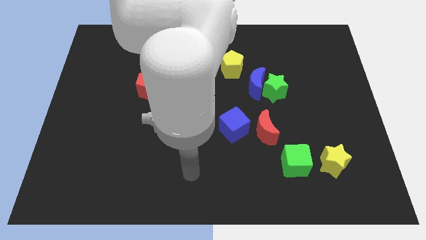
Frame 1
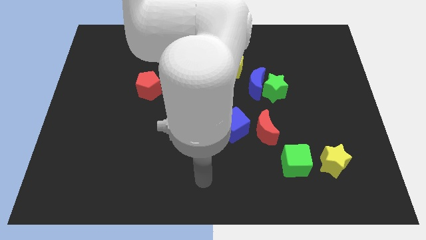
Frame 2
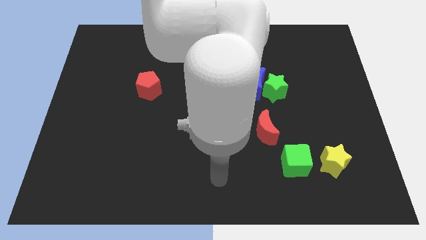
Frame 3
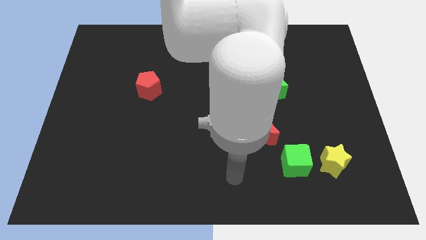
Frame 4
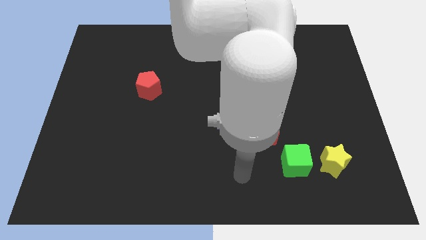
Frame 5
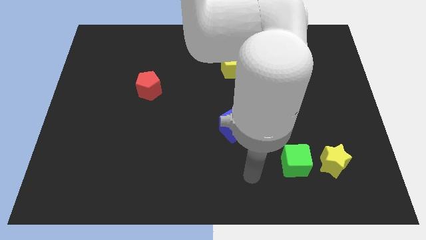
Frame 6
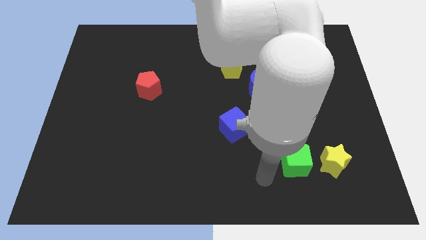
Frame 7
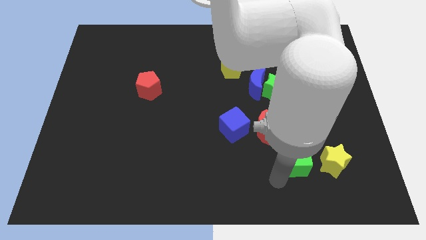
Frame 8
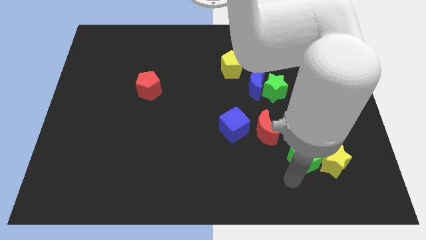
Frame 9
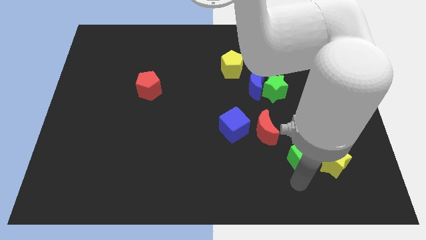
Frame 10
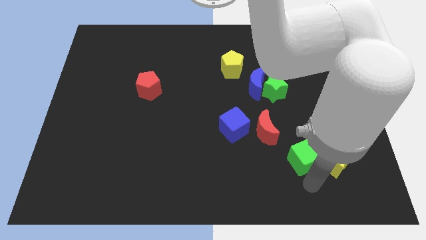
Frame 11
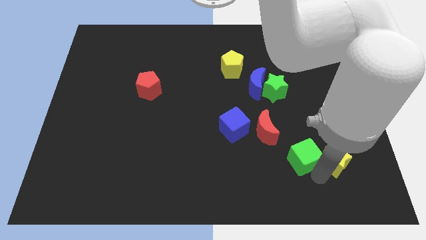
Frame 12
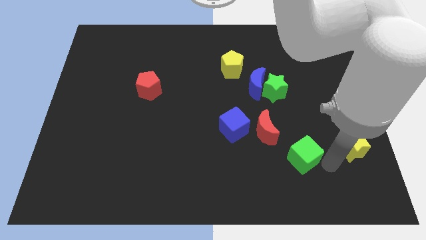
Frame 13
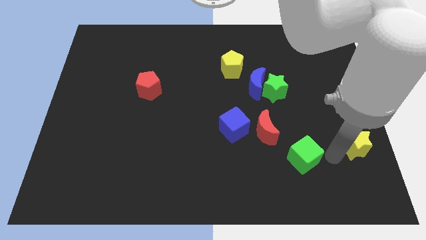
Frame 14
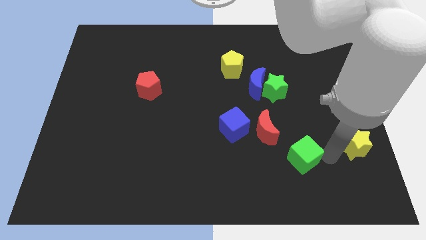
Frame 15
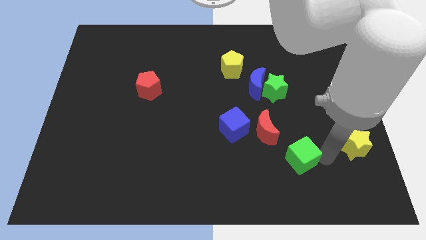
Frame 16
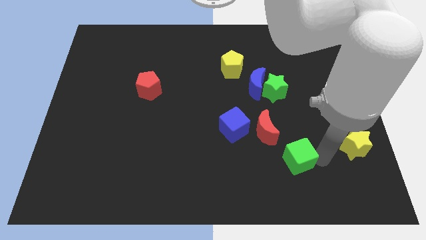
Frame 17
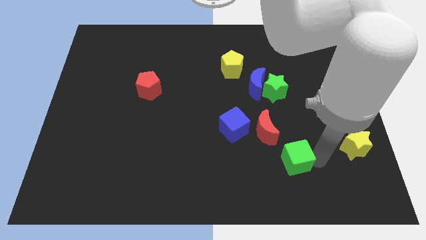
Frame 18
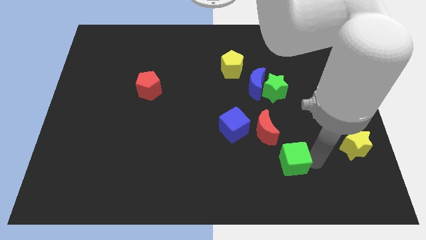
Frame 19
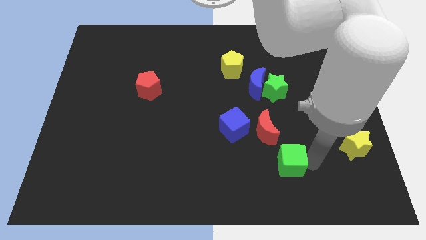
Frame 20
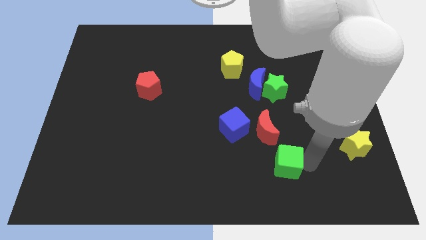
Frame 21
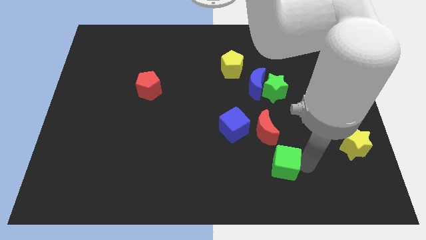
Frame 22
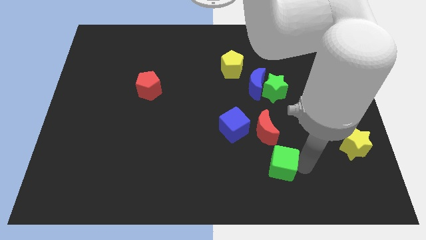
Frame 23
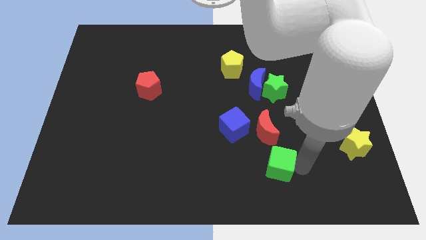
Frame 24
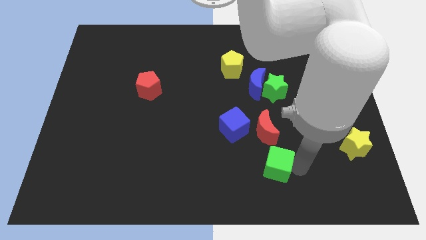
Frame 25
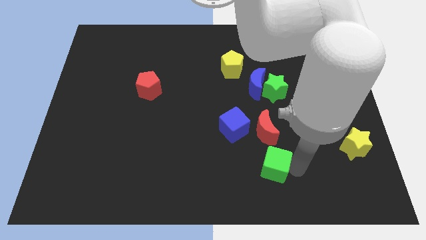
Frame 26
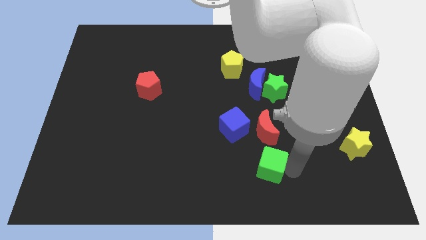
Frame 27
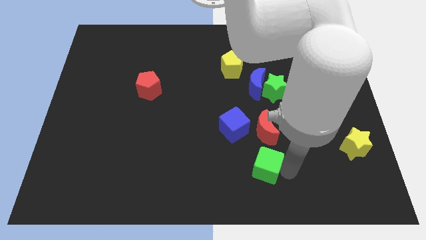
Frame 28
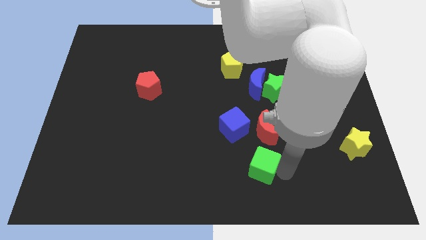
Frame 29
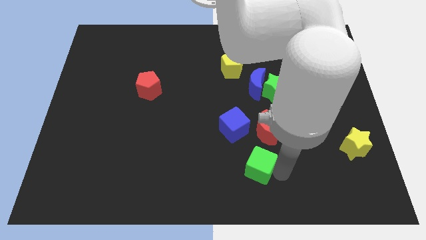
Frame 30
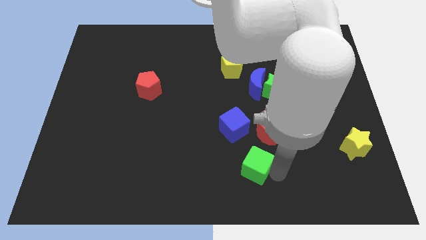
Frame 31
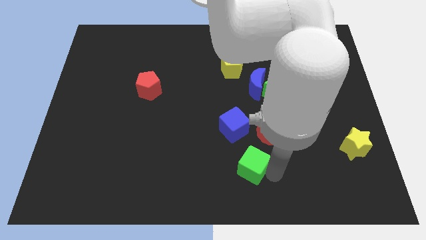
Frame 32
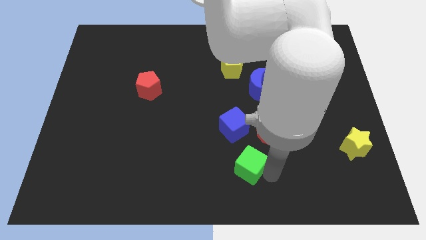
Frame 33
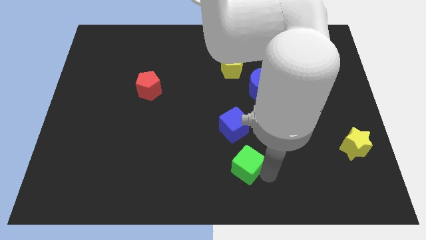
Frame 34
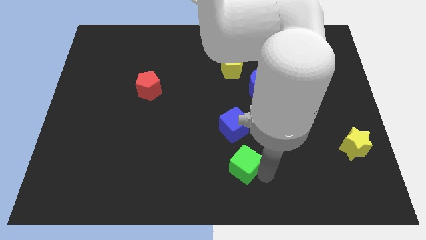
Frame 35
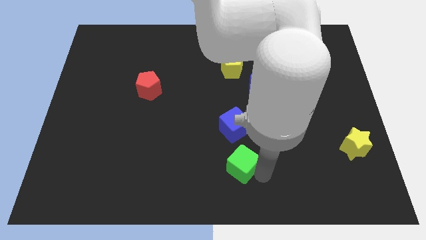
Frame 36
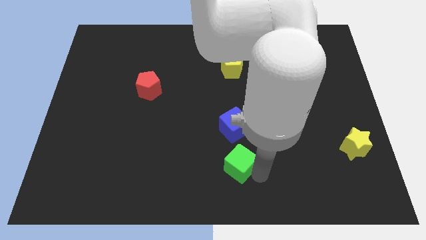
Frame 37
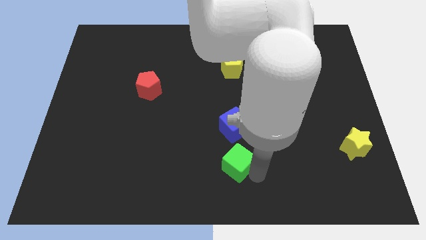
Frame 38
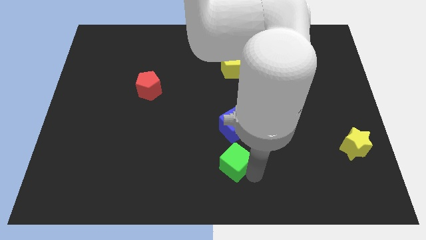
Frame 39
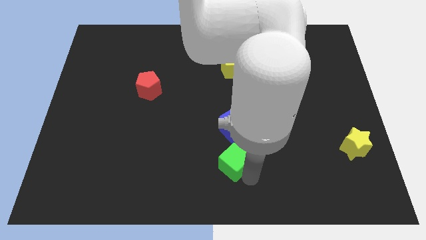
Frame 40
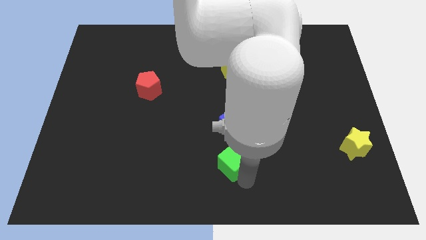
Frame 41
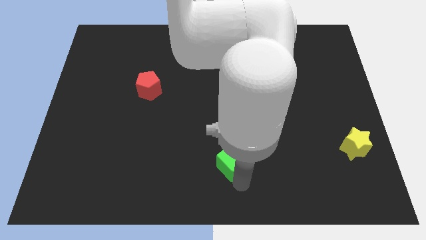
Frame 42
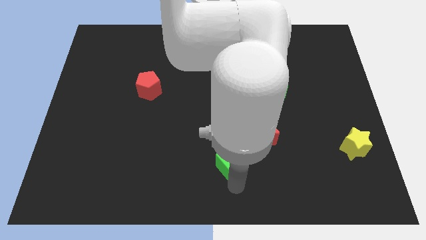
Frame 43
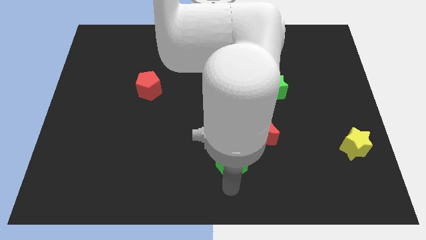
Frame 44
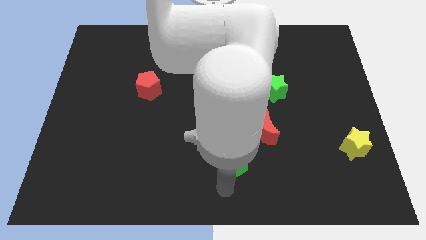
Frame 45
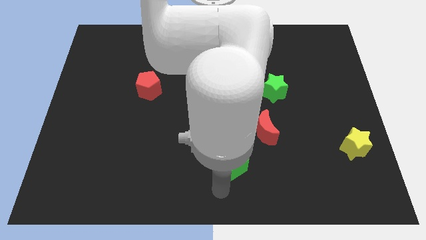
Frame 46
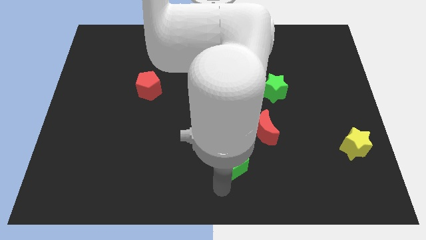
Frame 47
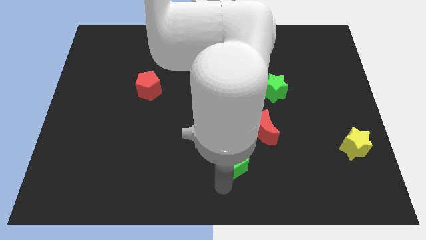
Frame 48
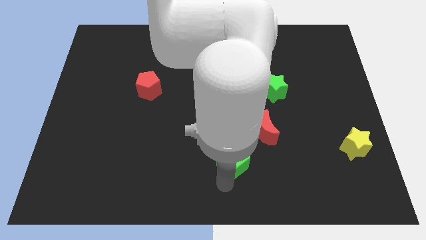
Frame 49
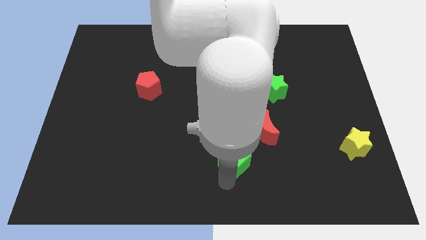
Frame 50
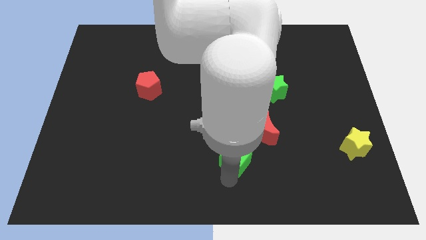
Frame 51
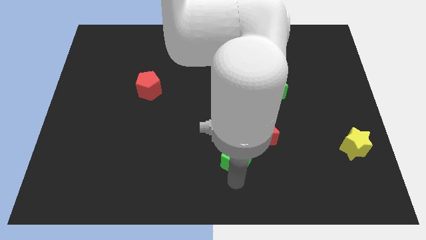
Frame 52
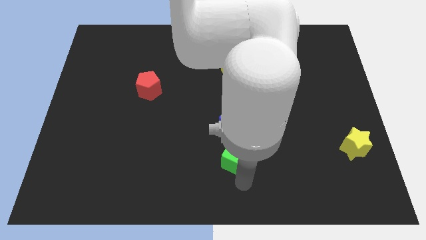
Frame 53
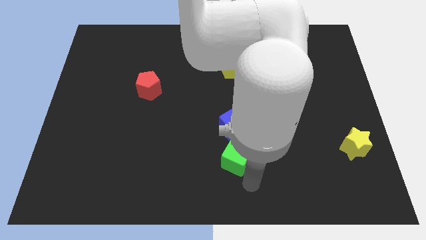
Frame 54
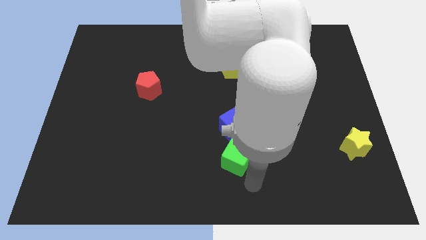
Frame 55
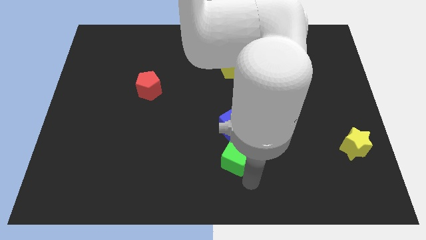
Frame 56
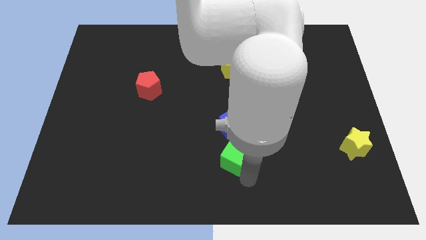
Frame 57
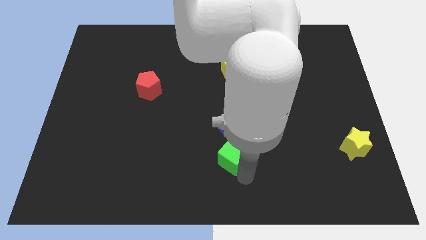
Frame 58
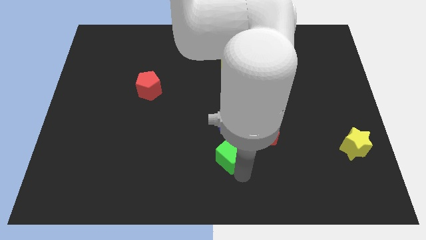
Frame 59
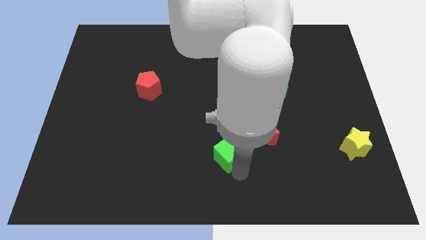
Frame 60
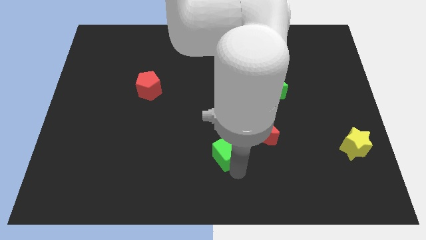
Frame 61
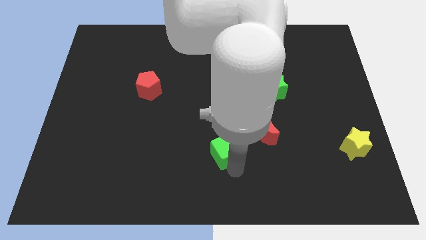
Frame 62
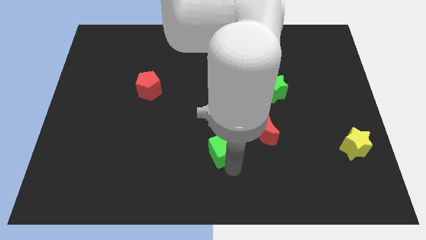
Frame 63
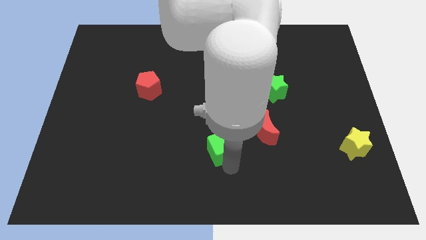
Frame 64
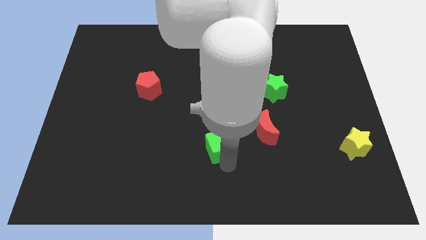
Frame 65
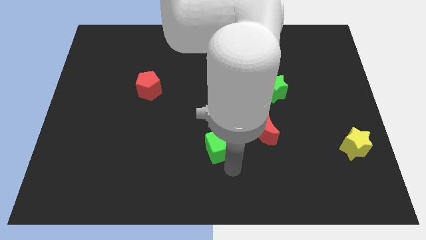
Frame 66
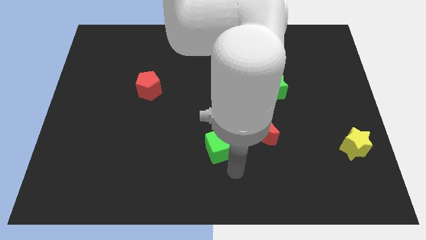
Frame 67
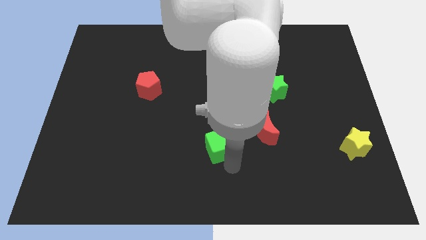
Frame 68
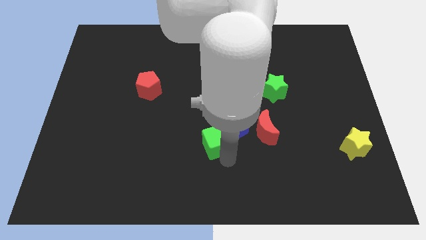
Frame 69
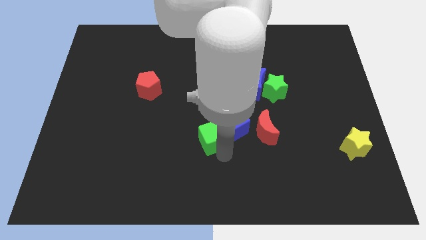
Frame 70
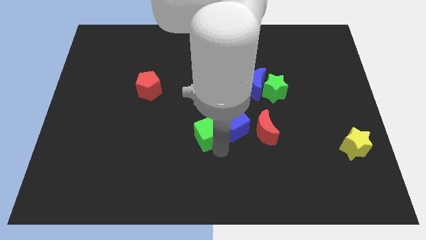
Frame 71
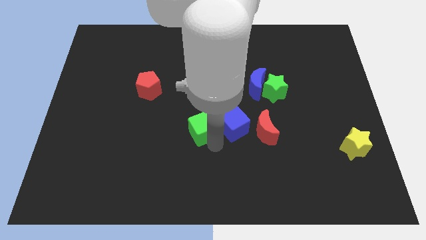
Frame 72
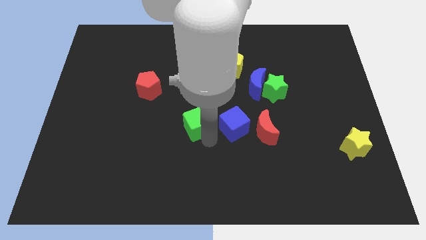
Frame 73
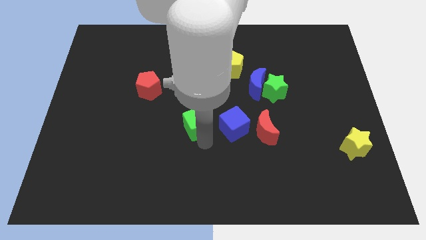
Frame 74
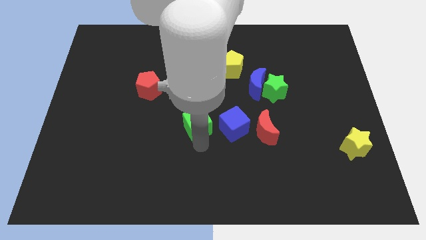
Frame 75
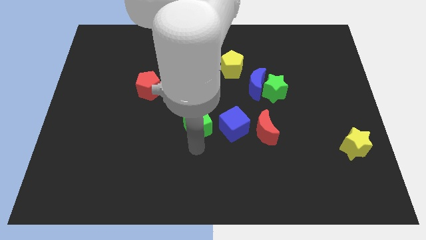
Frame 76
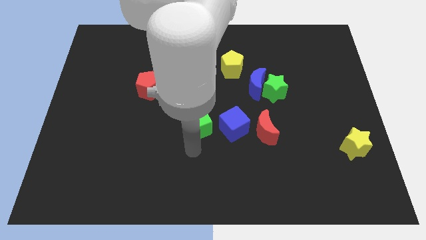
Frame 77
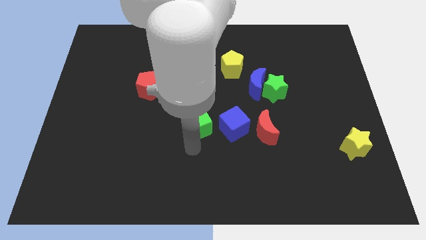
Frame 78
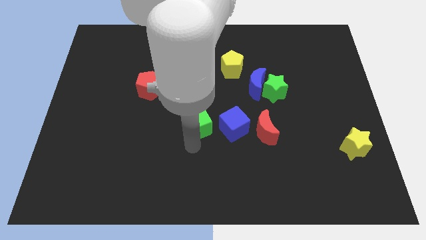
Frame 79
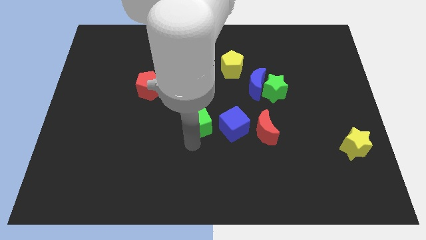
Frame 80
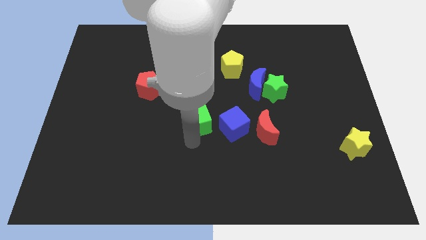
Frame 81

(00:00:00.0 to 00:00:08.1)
push the green cube diagonally upwards and left

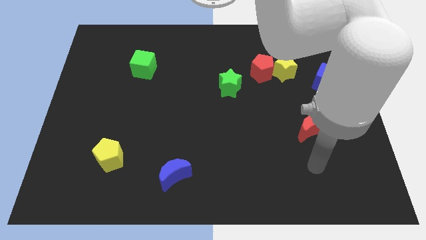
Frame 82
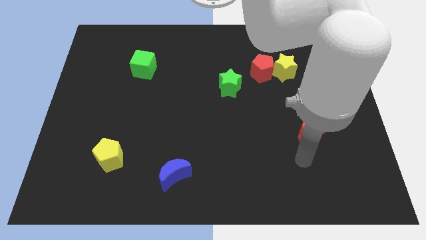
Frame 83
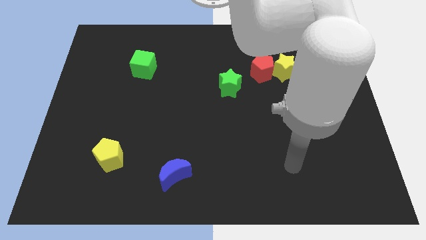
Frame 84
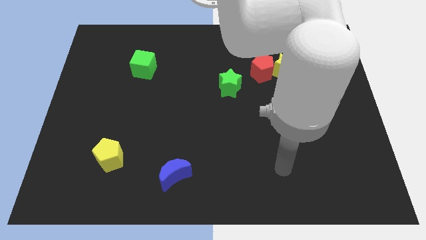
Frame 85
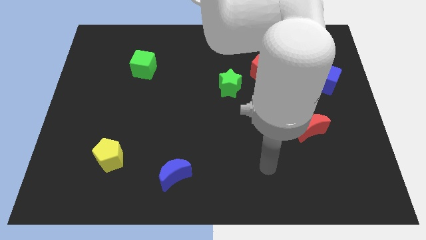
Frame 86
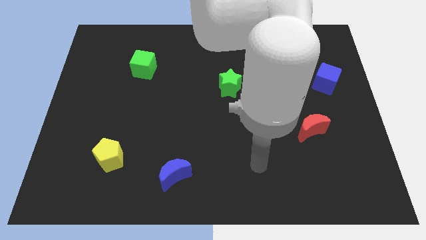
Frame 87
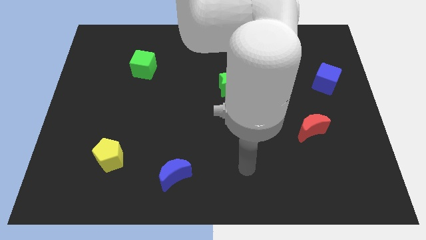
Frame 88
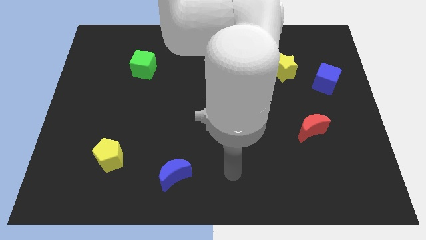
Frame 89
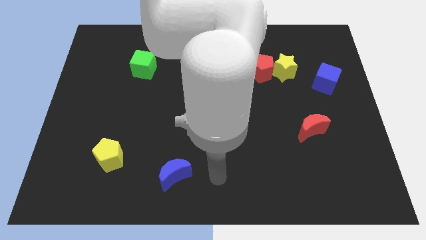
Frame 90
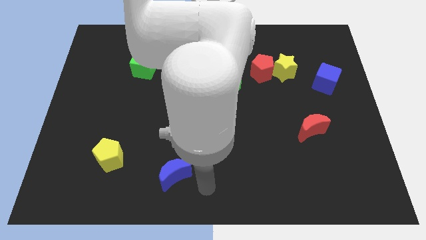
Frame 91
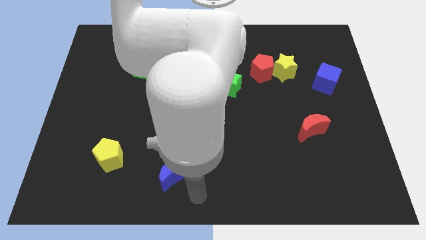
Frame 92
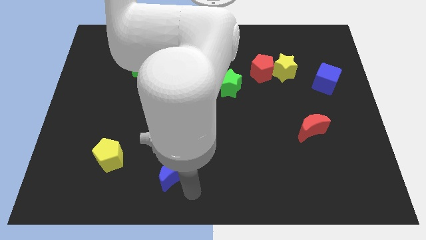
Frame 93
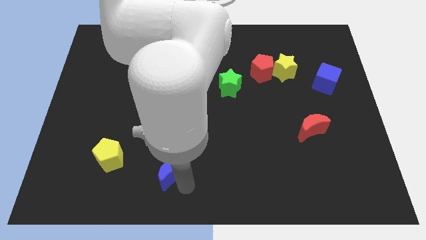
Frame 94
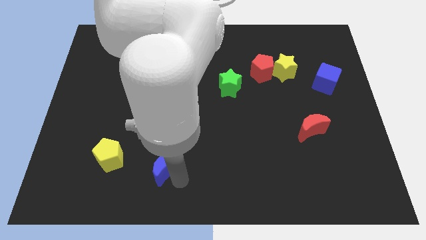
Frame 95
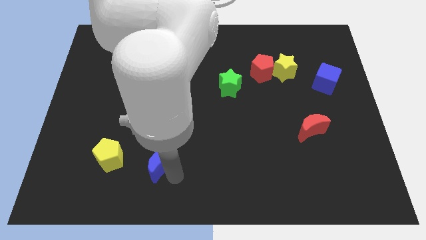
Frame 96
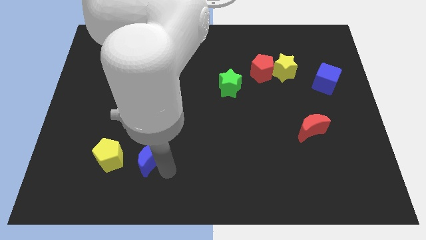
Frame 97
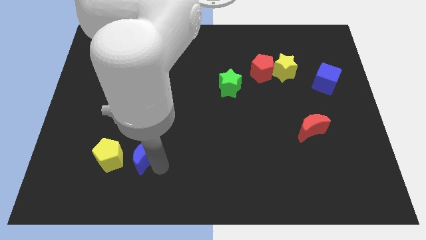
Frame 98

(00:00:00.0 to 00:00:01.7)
push the blue moon a little up and to the left diagonally
